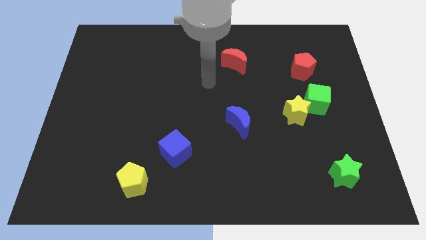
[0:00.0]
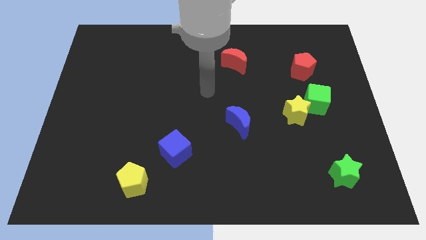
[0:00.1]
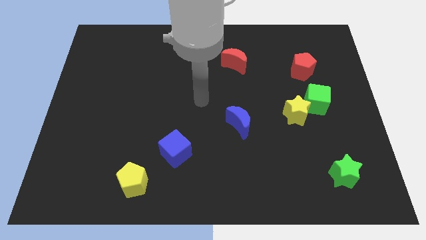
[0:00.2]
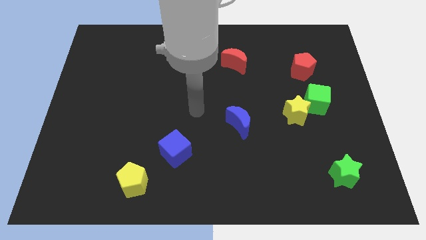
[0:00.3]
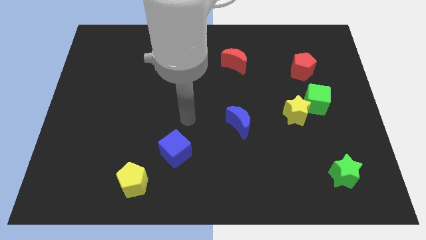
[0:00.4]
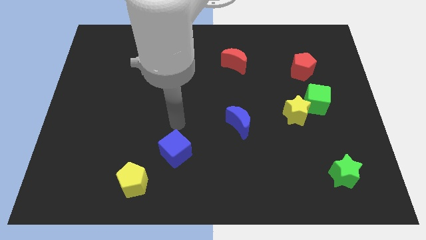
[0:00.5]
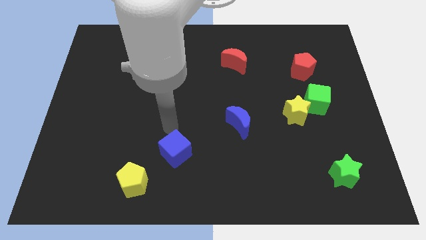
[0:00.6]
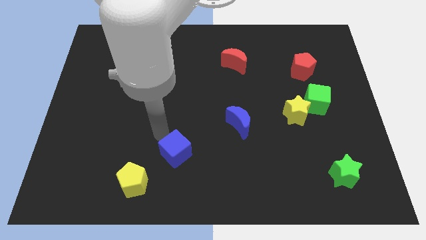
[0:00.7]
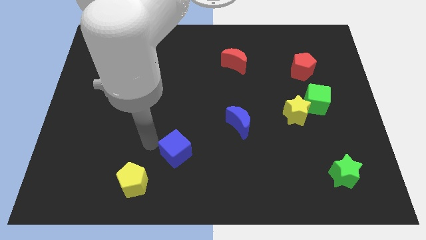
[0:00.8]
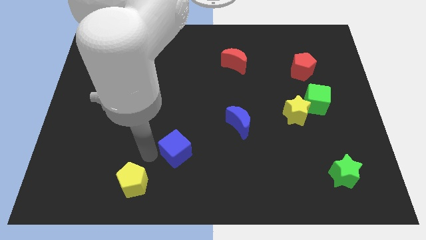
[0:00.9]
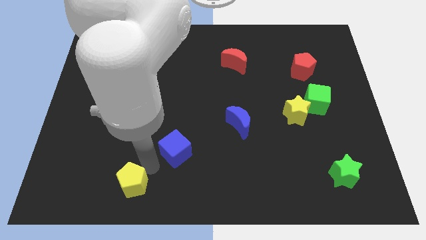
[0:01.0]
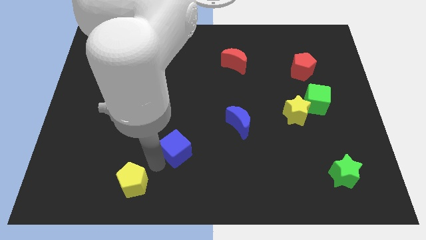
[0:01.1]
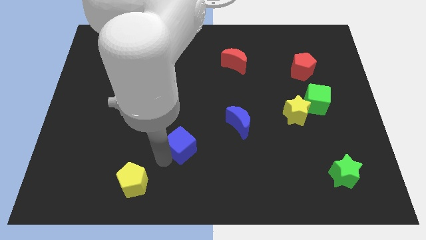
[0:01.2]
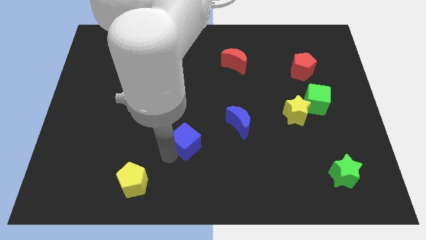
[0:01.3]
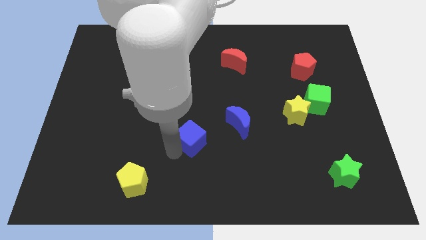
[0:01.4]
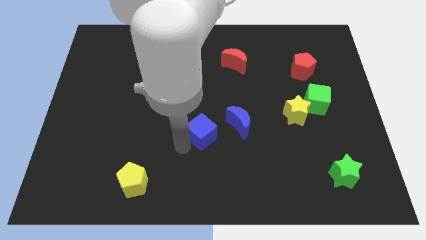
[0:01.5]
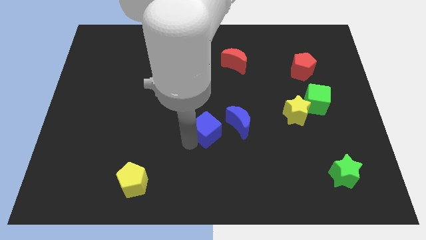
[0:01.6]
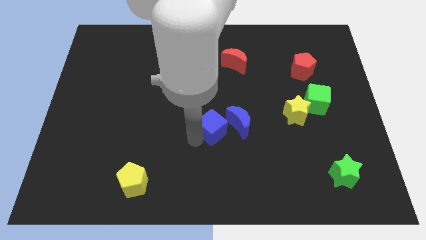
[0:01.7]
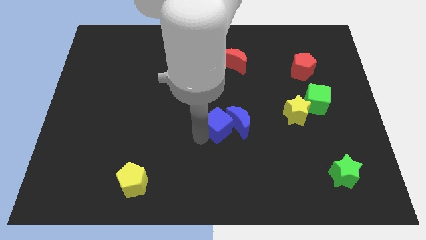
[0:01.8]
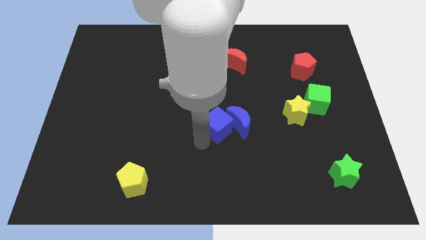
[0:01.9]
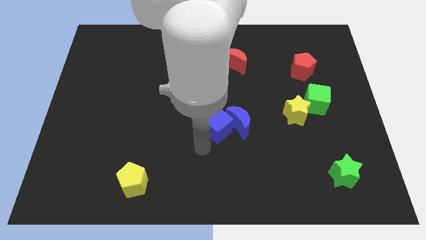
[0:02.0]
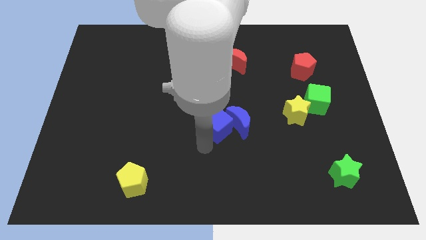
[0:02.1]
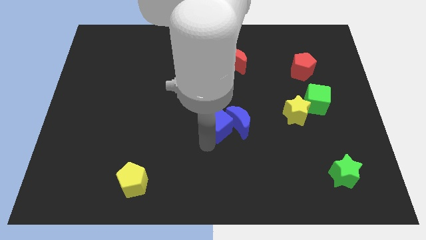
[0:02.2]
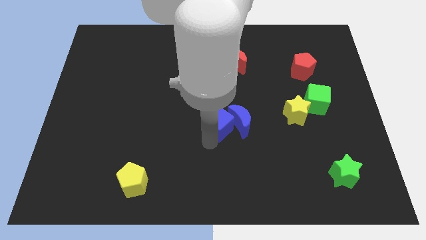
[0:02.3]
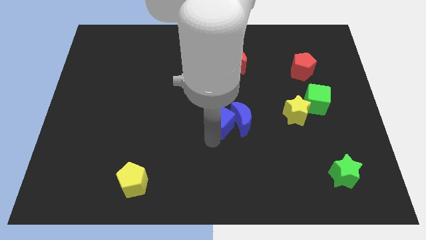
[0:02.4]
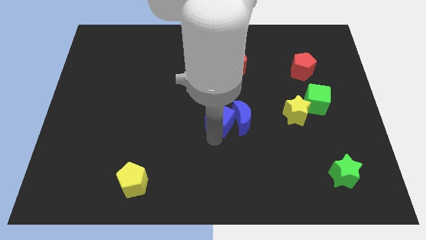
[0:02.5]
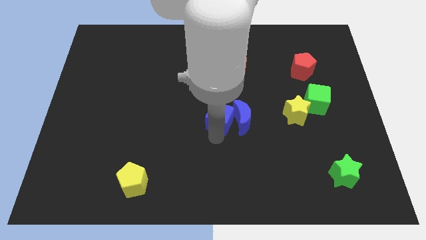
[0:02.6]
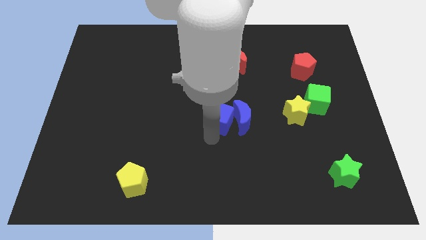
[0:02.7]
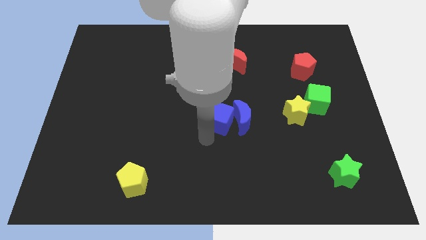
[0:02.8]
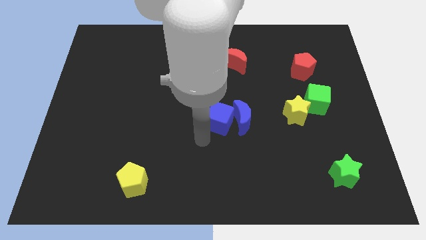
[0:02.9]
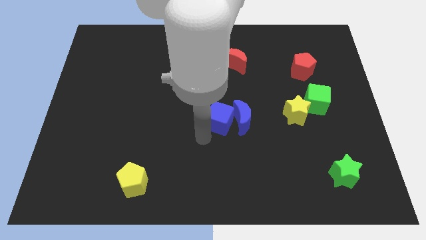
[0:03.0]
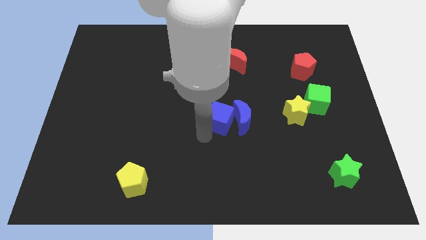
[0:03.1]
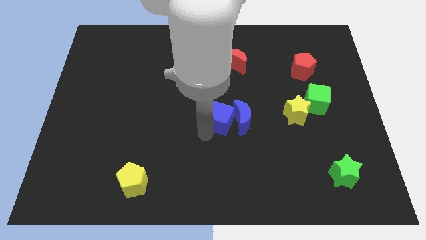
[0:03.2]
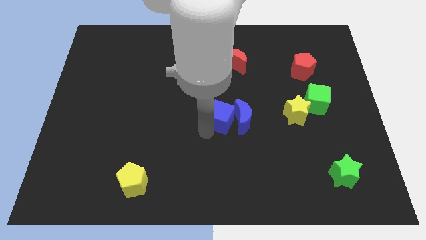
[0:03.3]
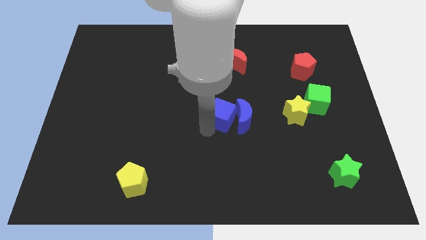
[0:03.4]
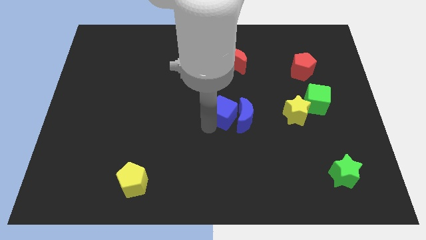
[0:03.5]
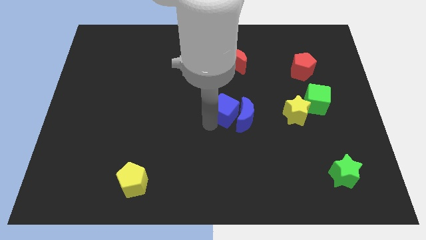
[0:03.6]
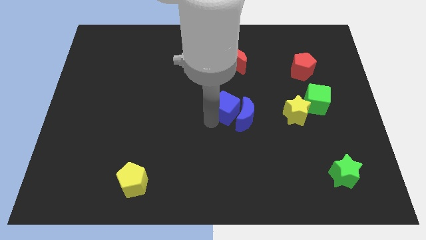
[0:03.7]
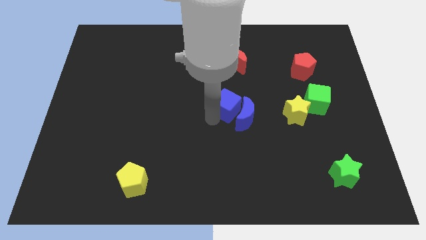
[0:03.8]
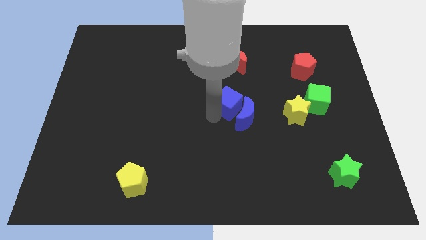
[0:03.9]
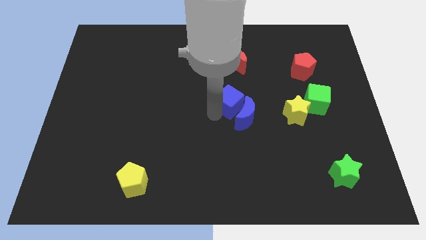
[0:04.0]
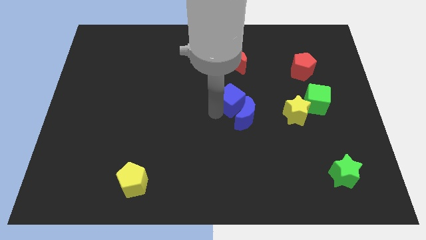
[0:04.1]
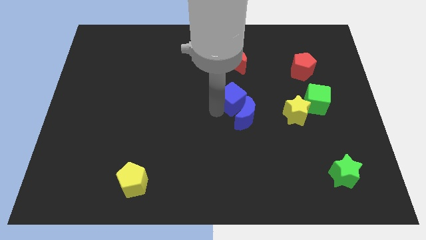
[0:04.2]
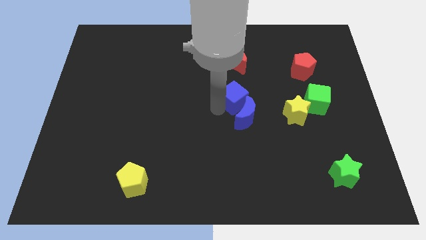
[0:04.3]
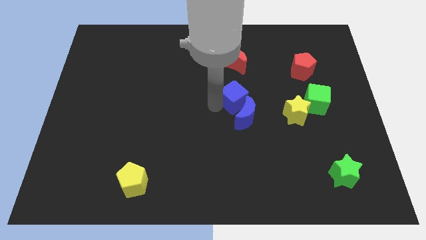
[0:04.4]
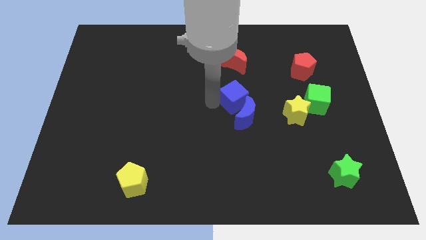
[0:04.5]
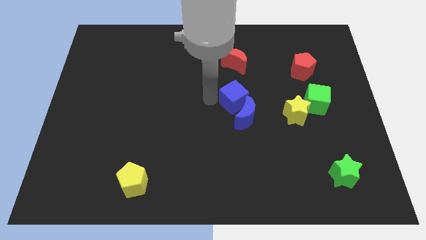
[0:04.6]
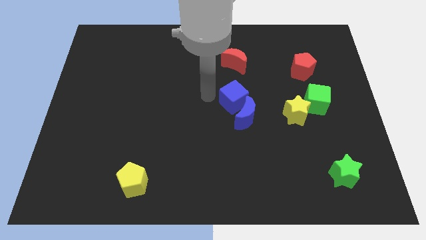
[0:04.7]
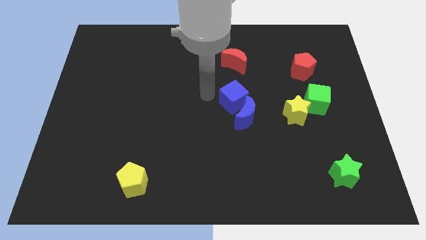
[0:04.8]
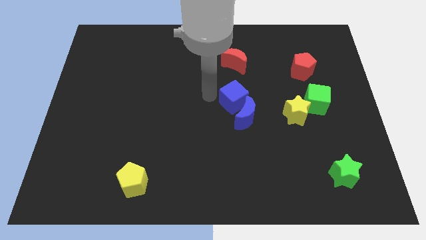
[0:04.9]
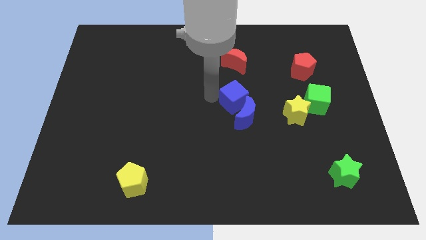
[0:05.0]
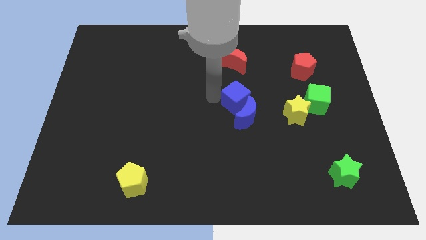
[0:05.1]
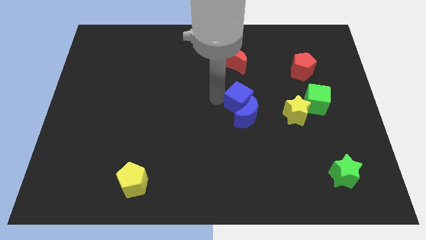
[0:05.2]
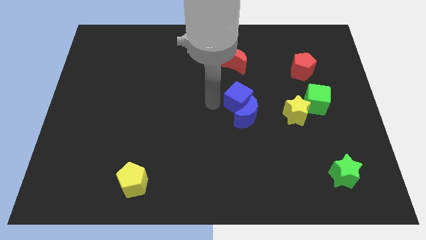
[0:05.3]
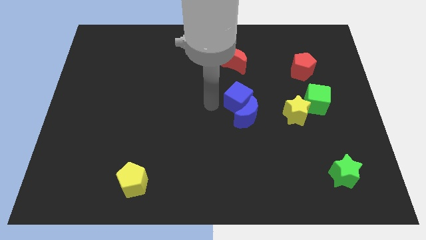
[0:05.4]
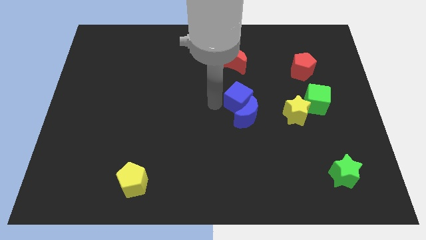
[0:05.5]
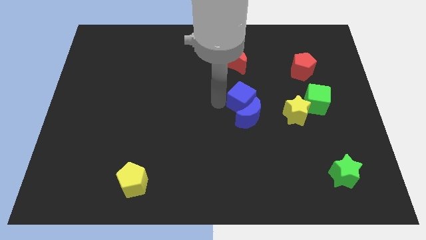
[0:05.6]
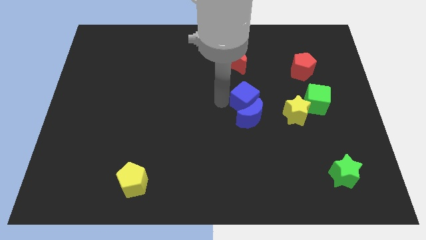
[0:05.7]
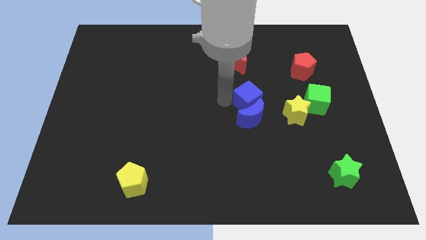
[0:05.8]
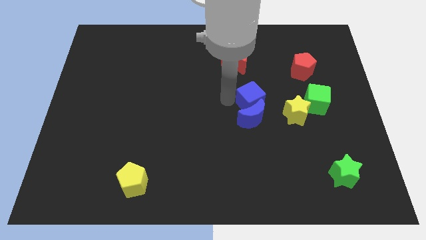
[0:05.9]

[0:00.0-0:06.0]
move the blue cube diagonally up and to the left of the yellow star
